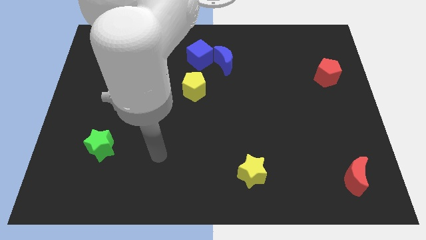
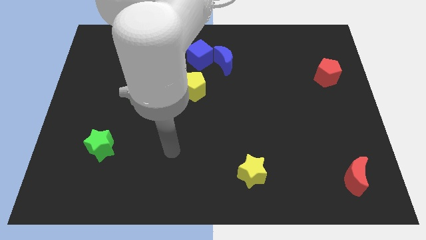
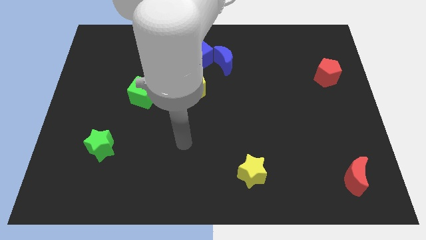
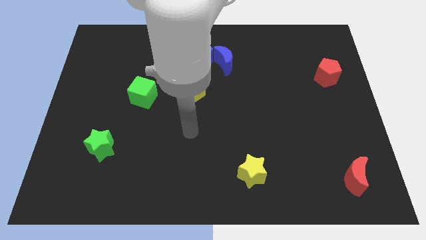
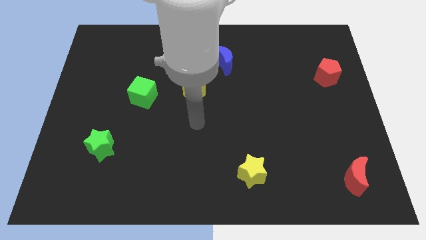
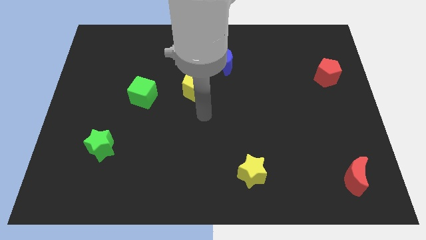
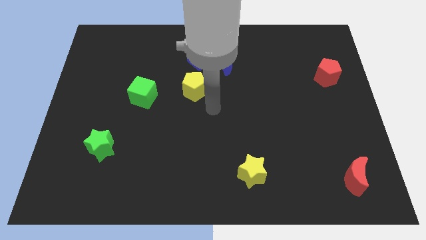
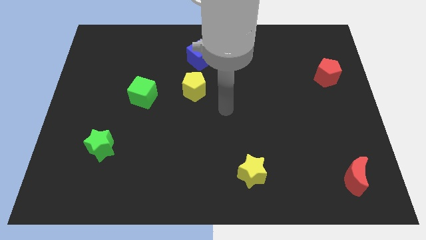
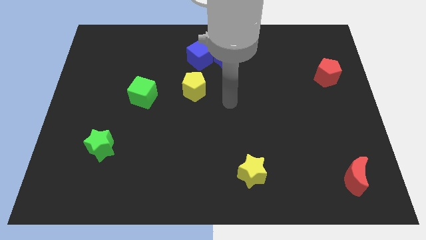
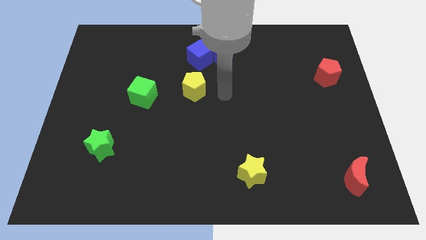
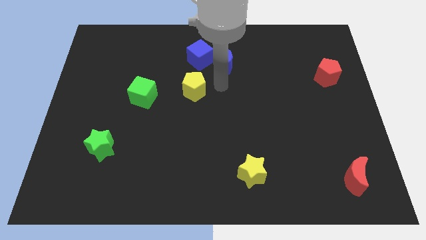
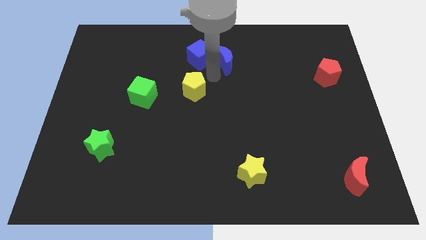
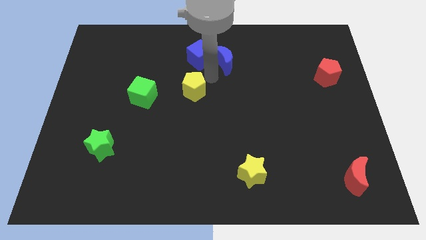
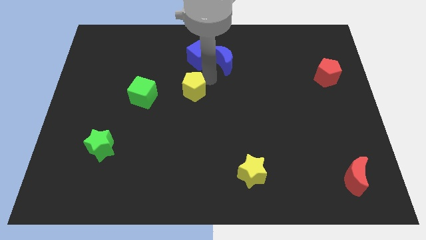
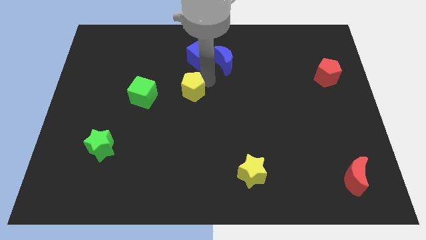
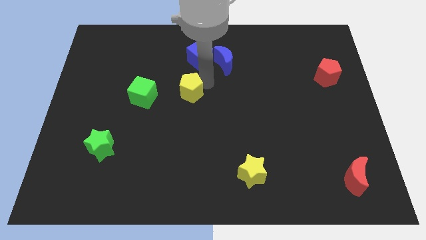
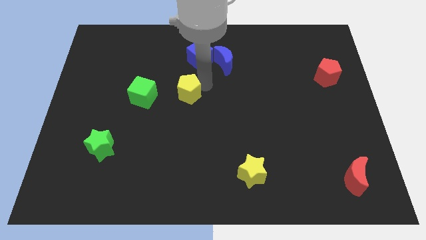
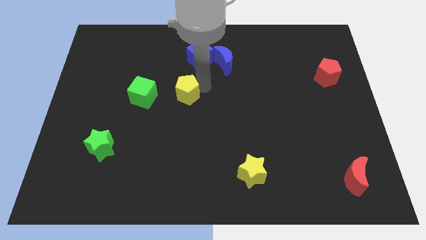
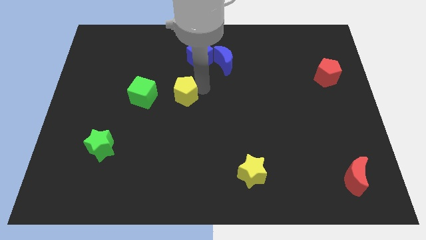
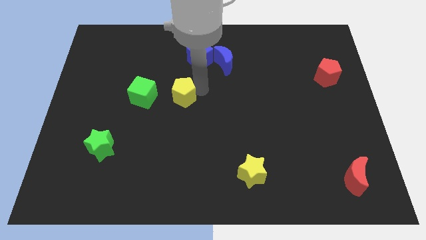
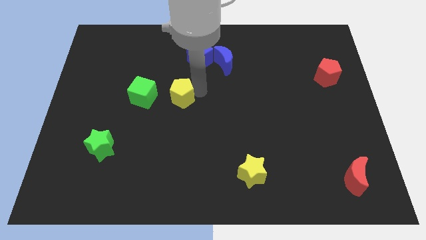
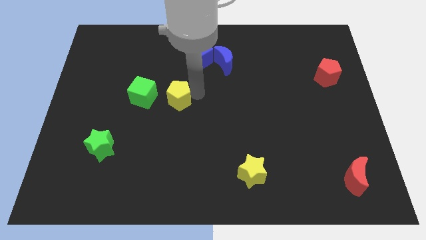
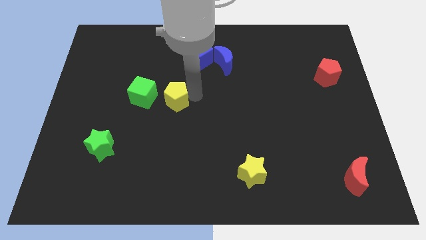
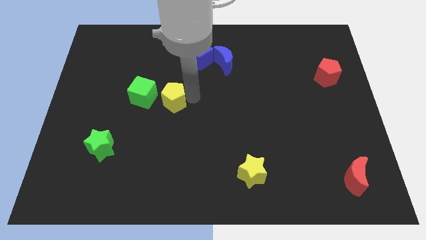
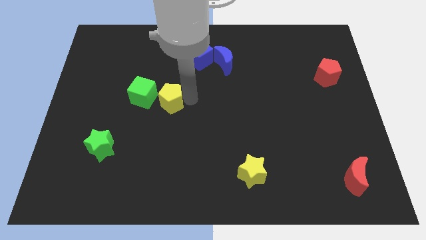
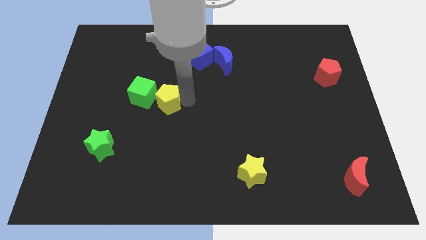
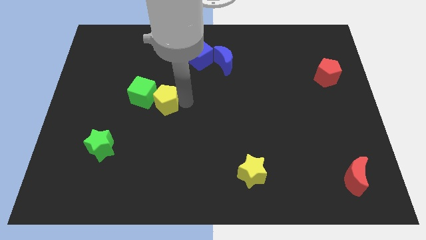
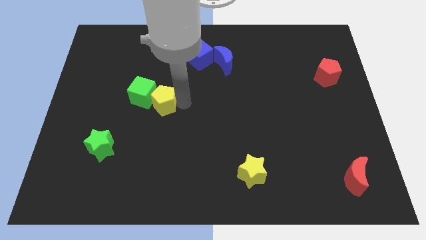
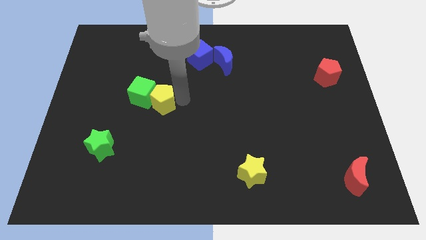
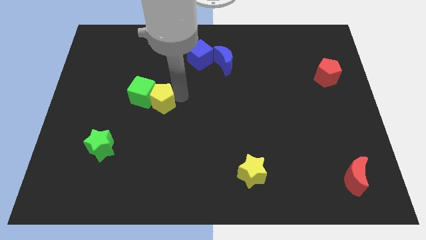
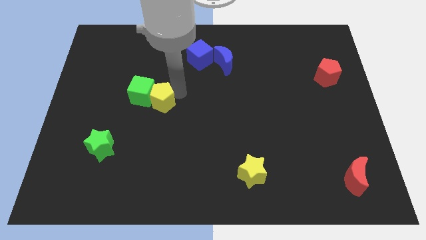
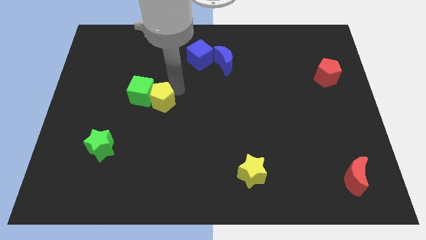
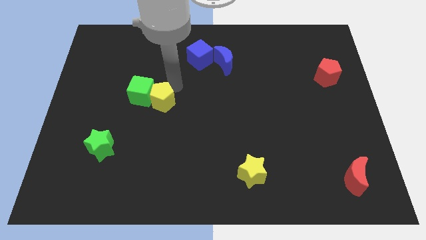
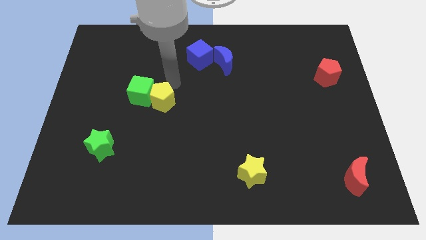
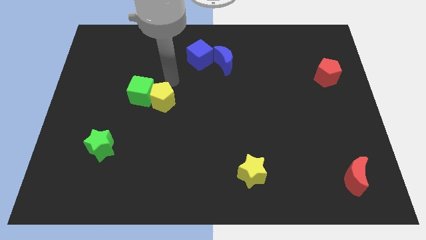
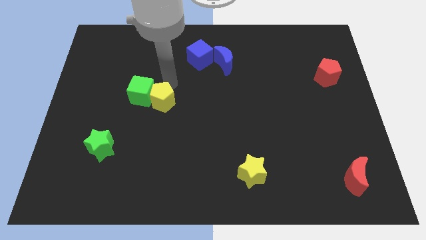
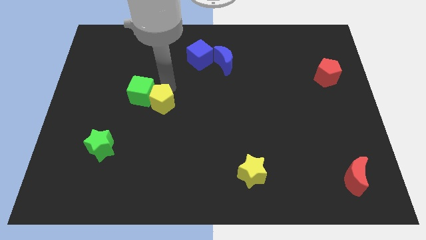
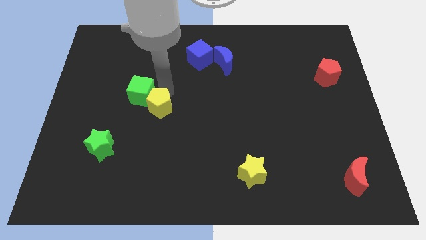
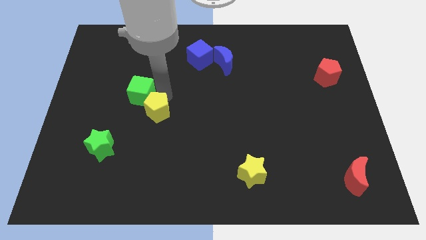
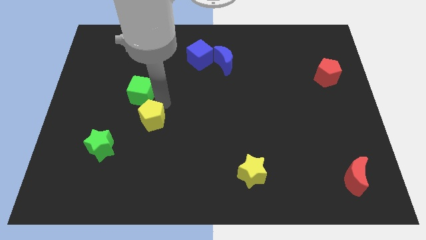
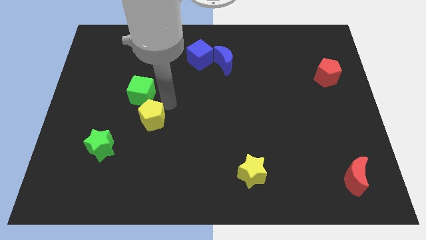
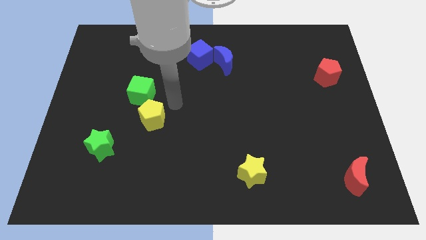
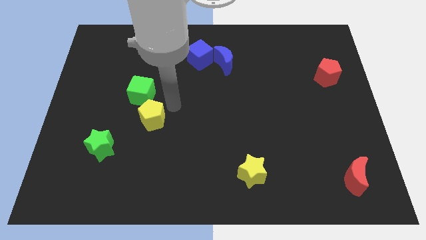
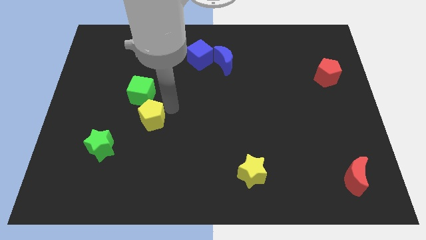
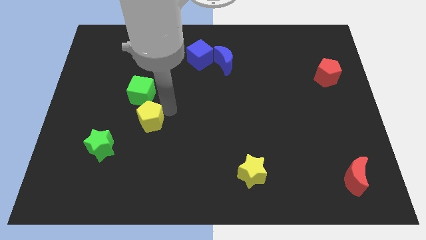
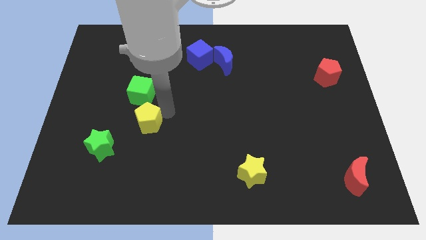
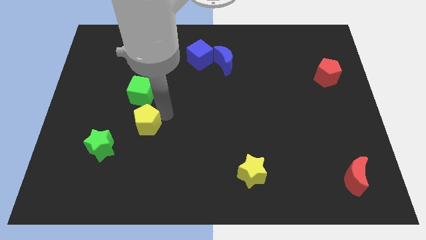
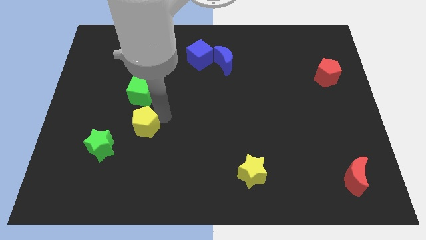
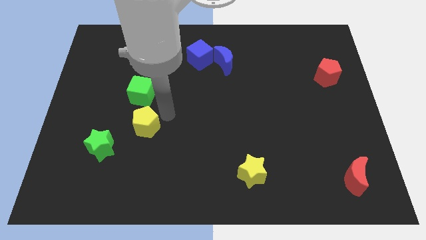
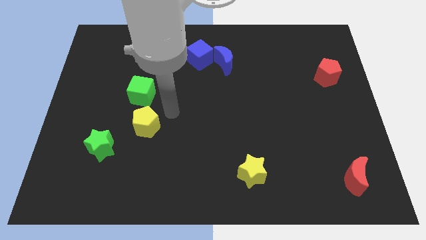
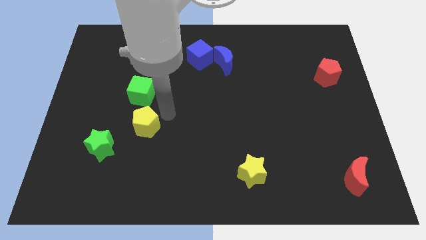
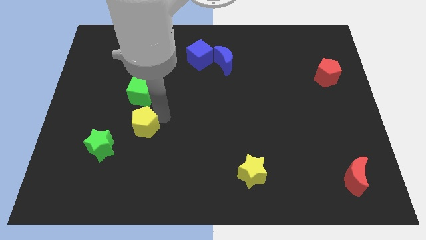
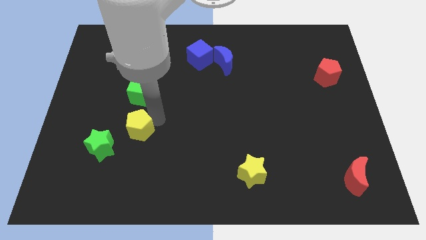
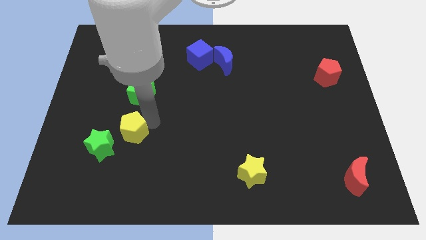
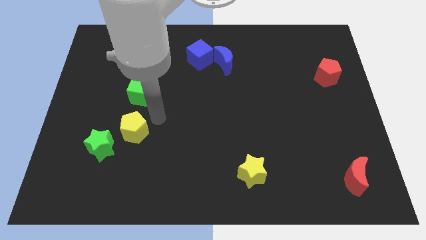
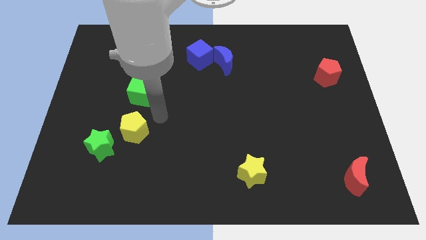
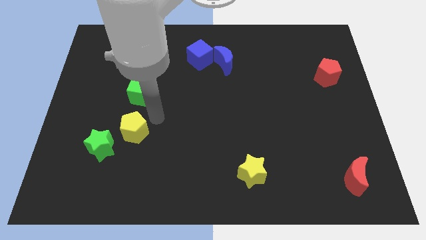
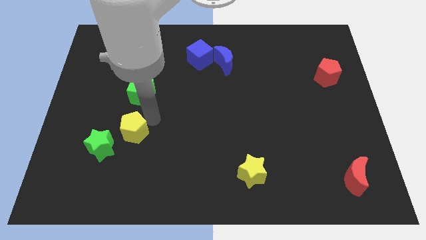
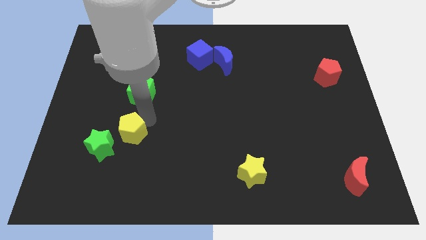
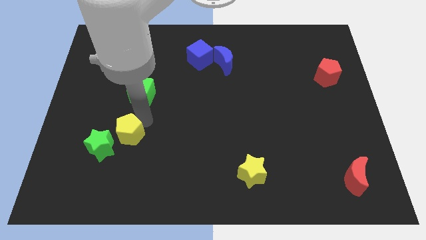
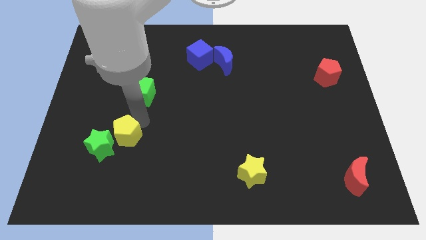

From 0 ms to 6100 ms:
slide the yellow pentagon close to the green star

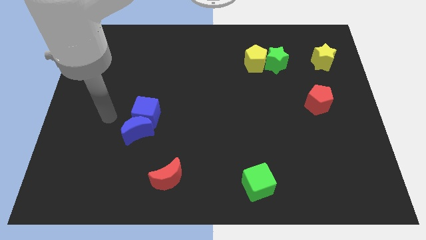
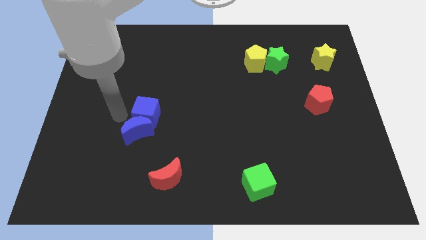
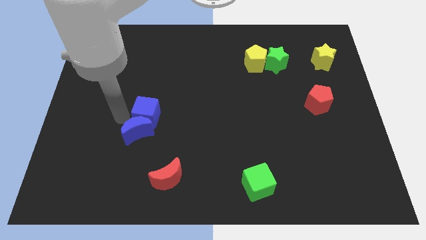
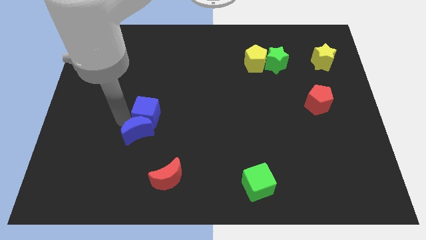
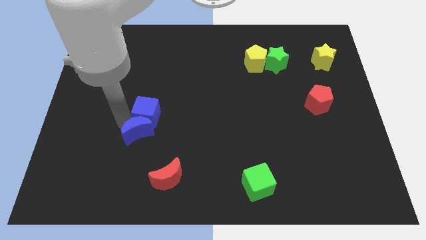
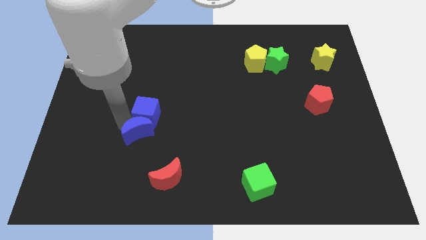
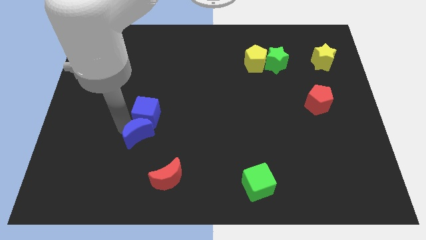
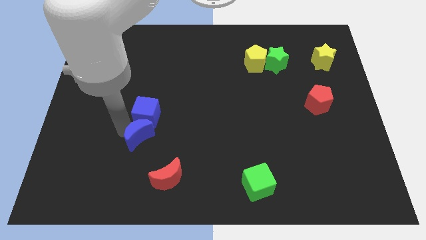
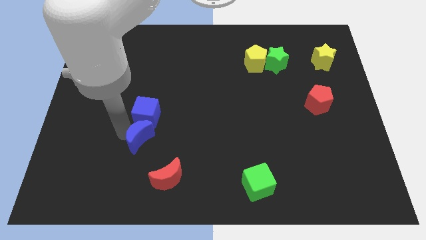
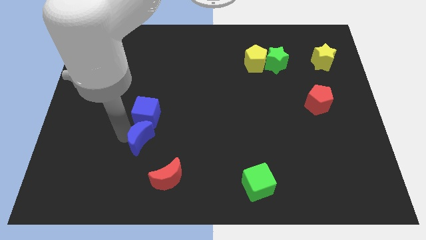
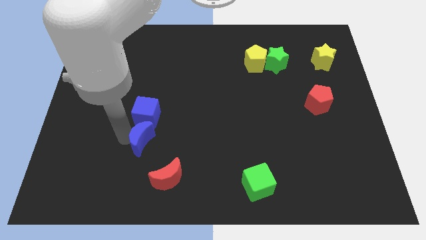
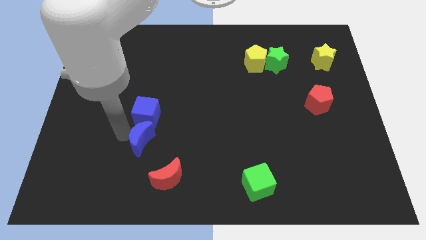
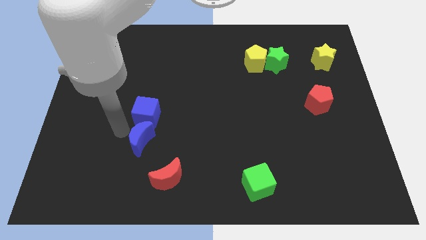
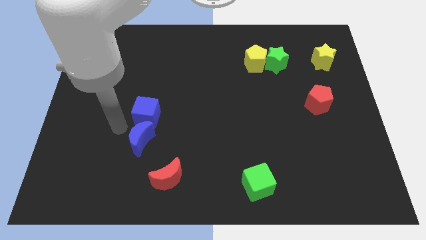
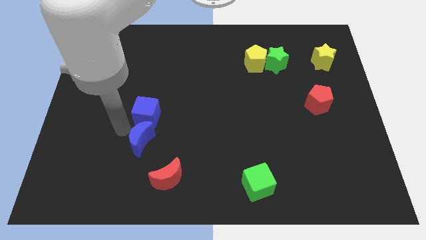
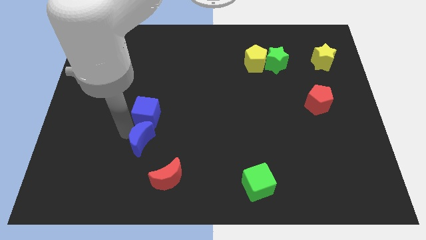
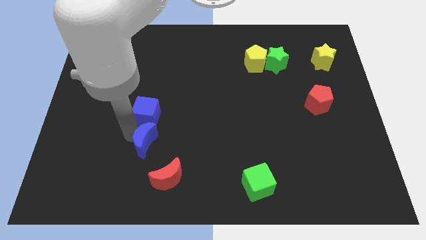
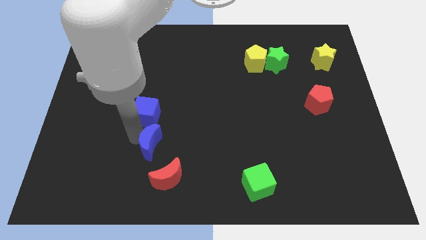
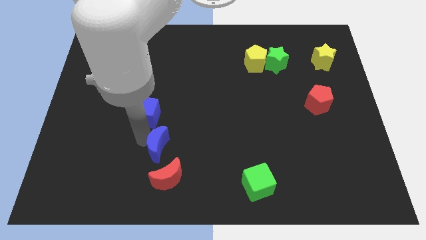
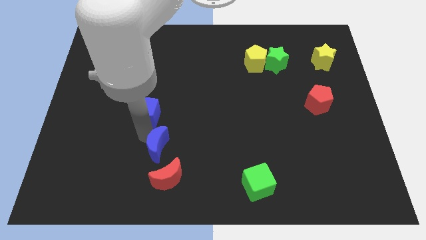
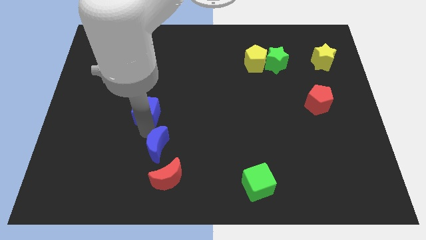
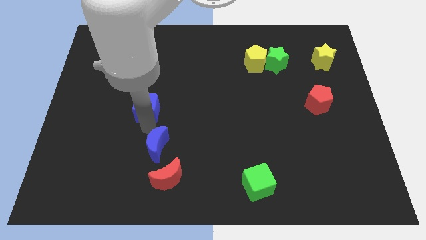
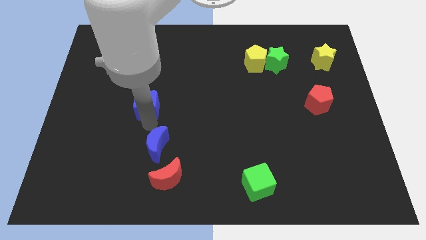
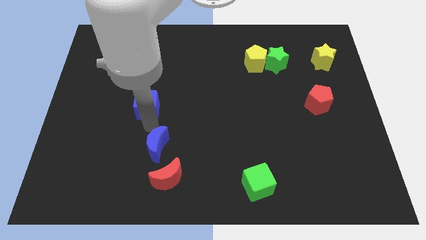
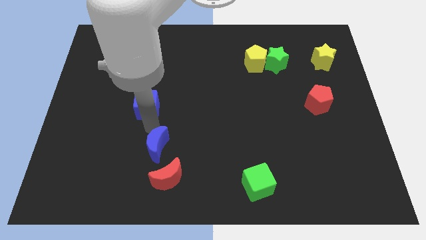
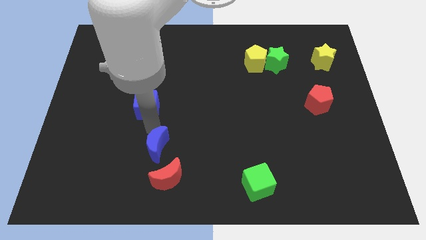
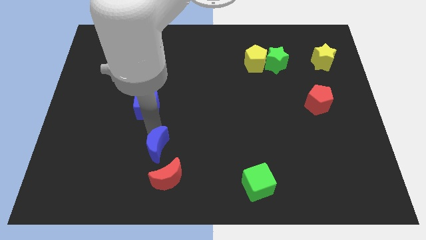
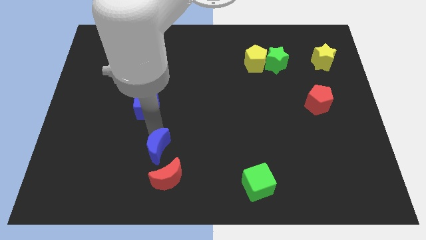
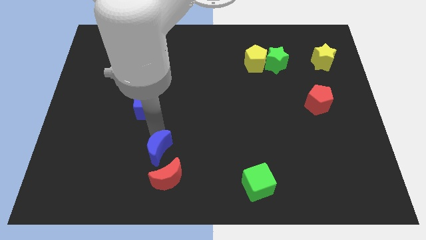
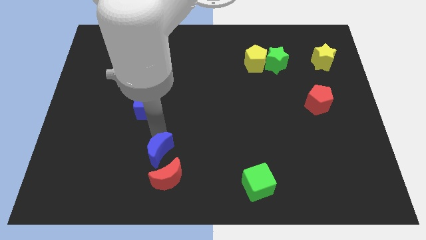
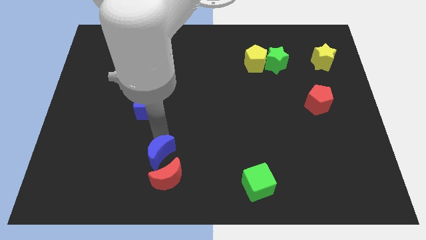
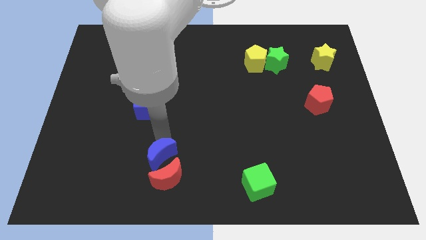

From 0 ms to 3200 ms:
push the blue moon next to the red moon
